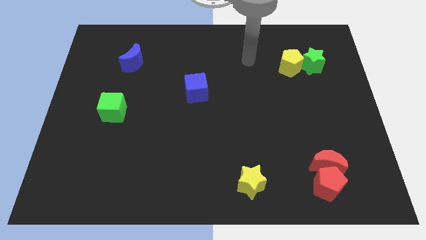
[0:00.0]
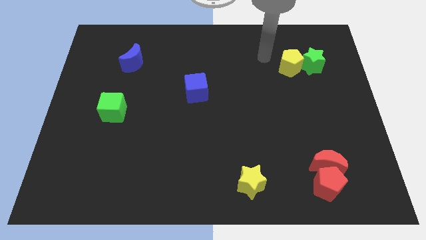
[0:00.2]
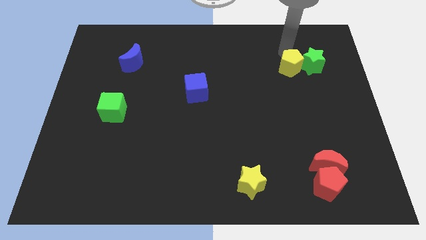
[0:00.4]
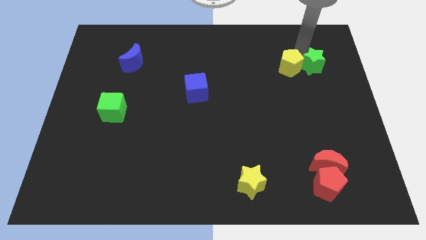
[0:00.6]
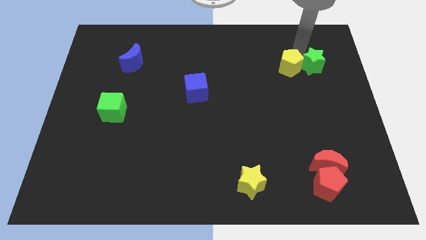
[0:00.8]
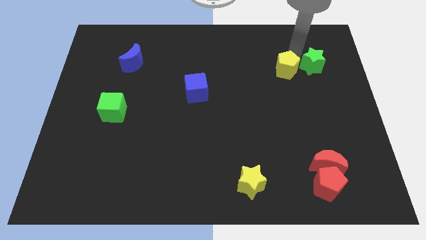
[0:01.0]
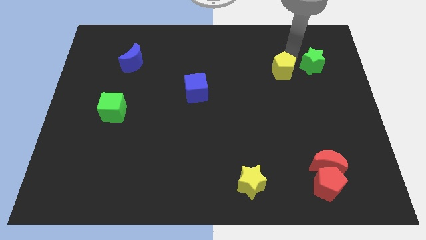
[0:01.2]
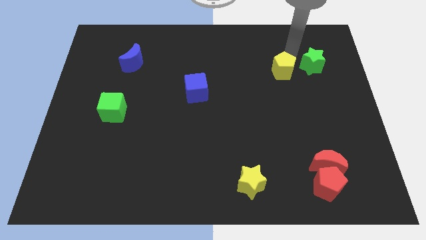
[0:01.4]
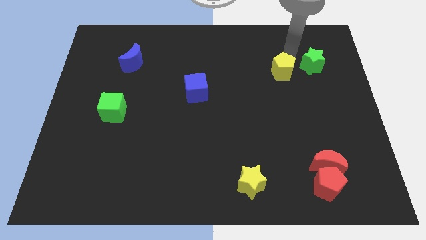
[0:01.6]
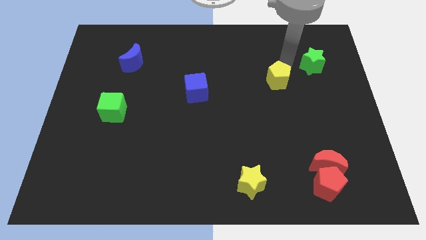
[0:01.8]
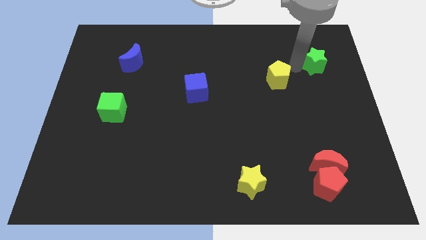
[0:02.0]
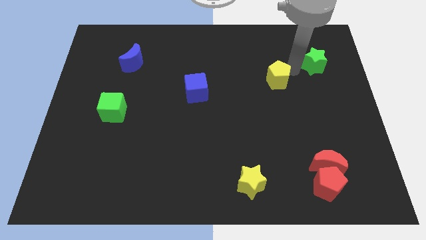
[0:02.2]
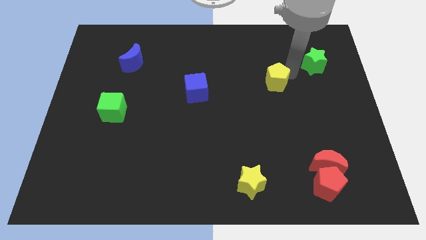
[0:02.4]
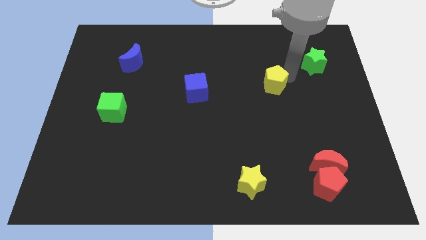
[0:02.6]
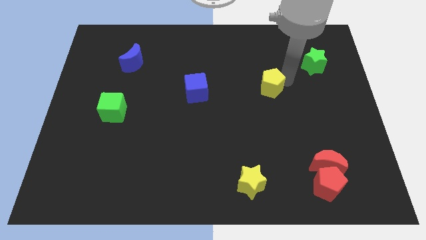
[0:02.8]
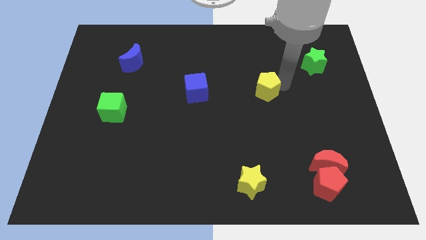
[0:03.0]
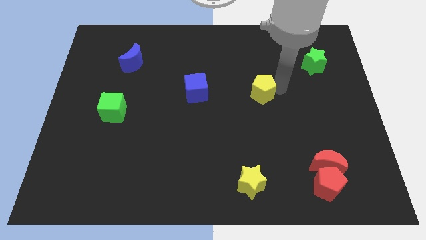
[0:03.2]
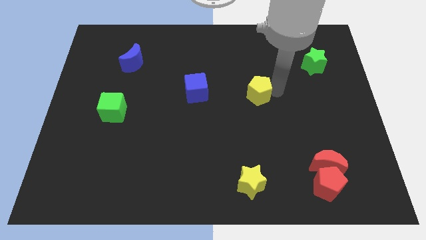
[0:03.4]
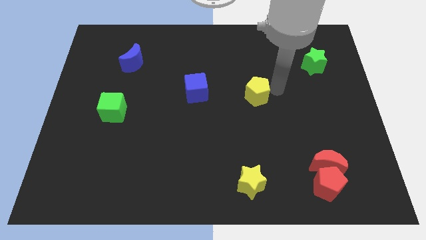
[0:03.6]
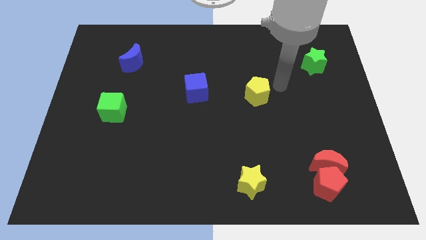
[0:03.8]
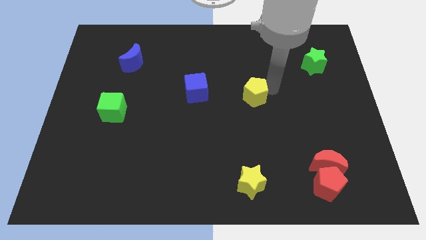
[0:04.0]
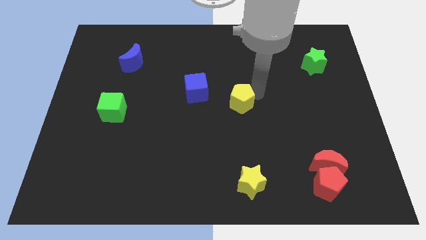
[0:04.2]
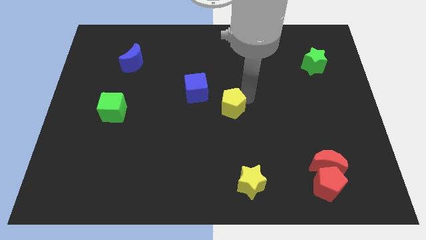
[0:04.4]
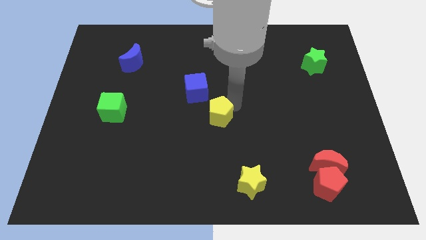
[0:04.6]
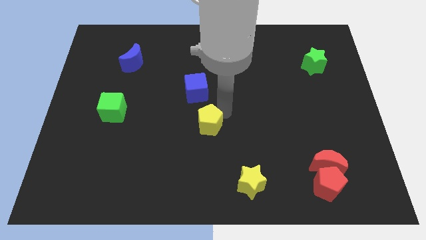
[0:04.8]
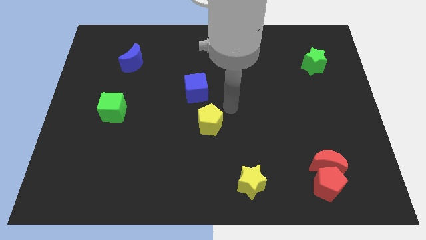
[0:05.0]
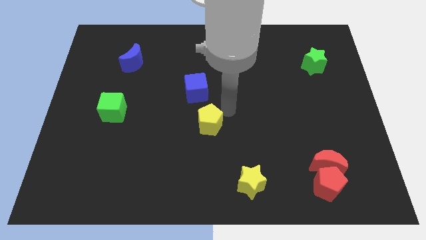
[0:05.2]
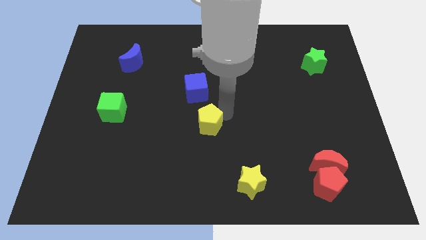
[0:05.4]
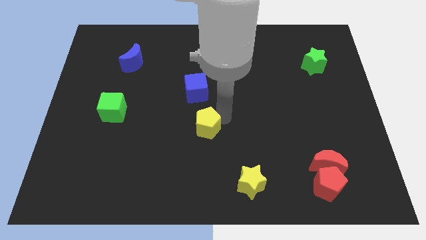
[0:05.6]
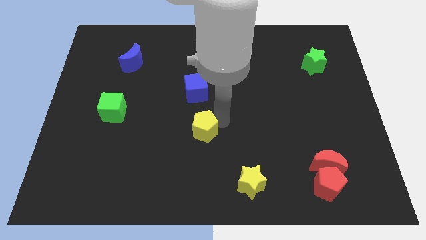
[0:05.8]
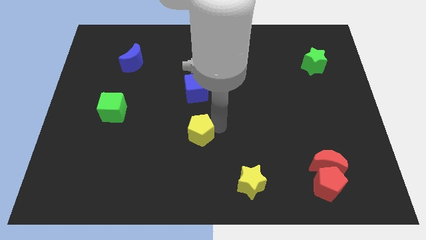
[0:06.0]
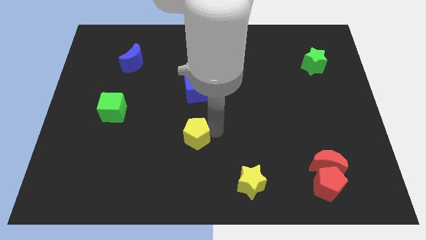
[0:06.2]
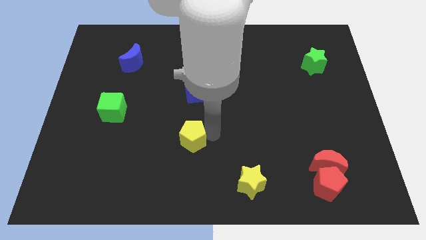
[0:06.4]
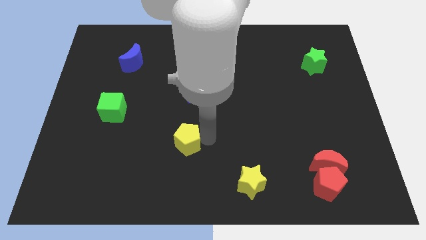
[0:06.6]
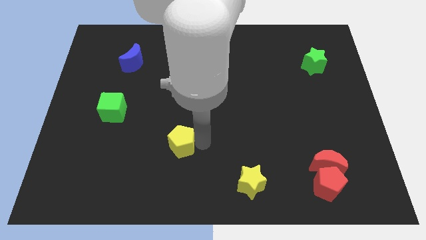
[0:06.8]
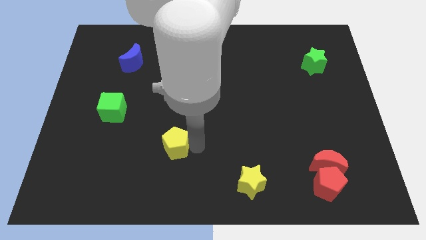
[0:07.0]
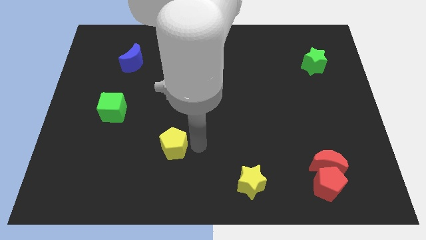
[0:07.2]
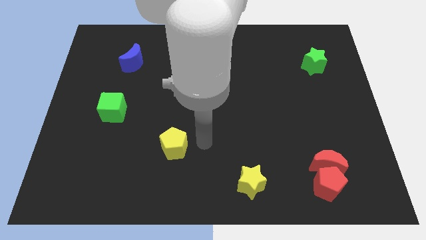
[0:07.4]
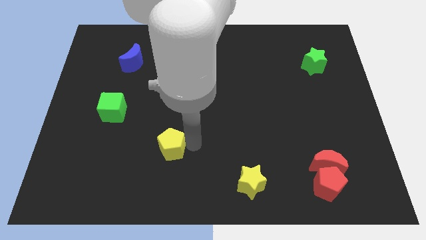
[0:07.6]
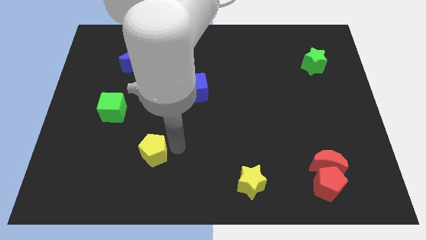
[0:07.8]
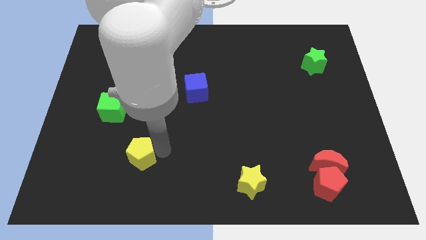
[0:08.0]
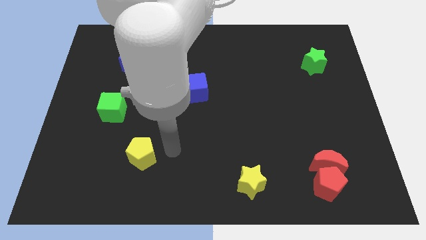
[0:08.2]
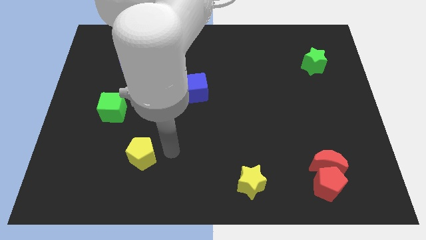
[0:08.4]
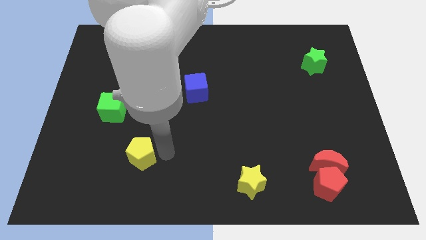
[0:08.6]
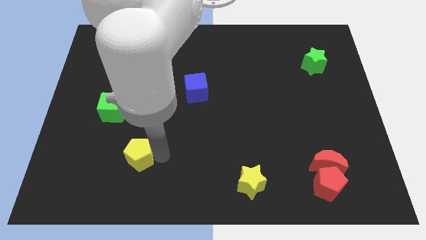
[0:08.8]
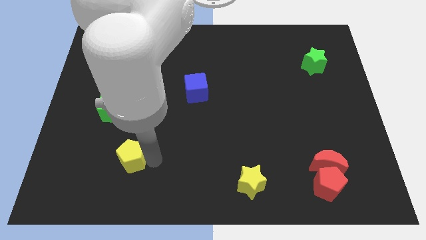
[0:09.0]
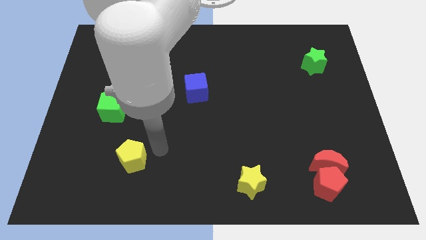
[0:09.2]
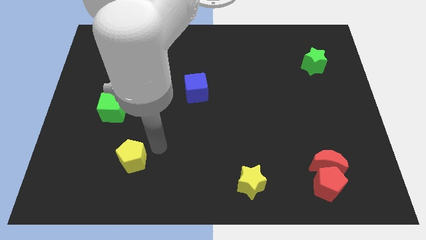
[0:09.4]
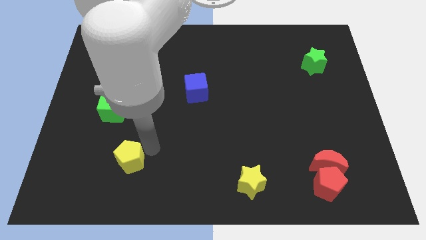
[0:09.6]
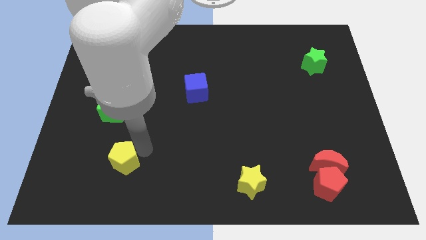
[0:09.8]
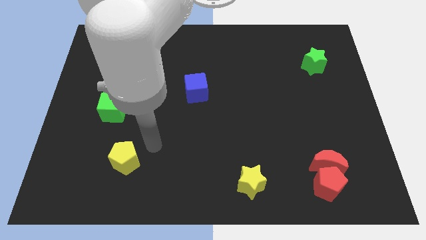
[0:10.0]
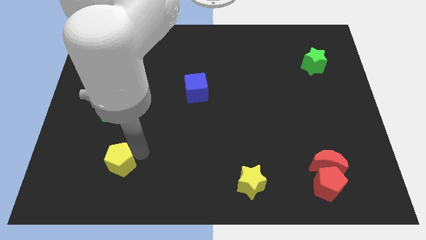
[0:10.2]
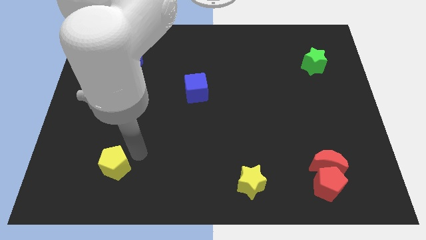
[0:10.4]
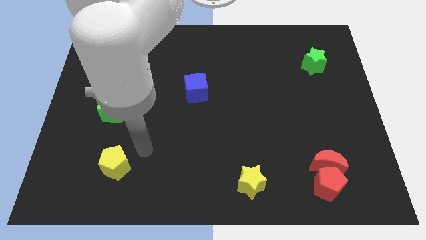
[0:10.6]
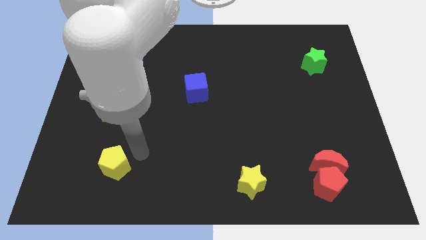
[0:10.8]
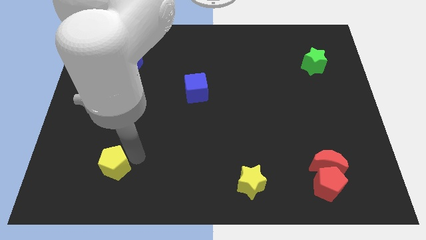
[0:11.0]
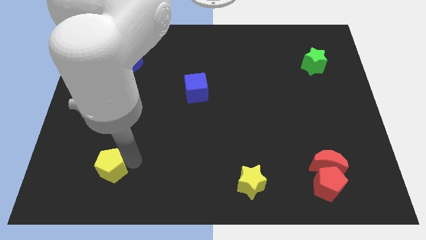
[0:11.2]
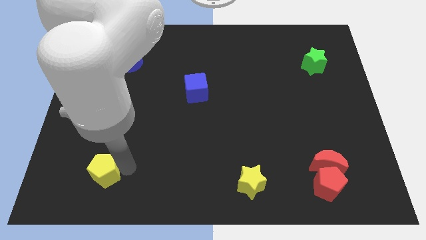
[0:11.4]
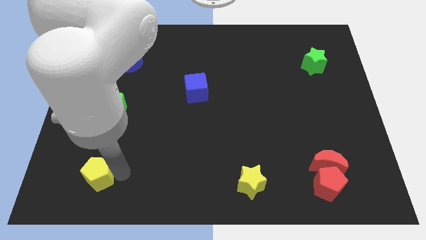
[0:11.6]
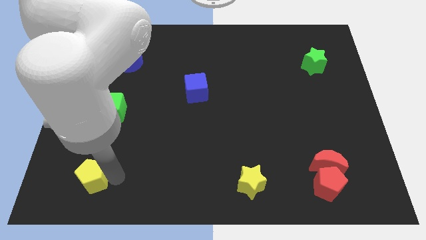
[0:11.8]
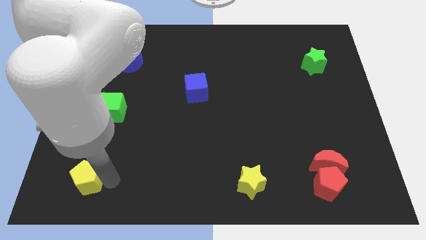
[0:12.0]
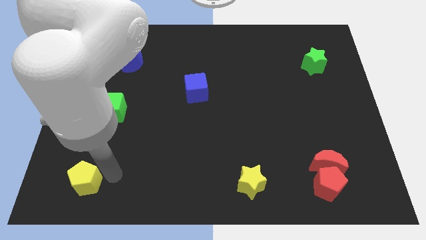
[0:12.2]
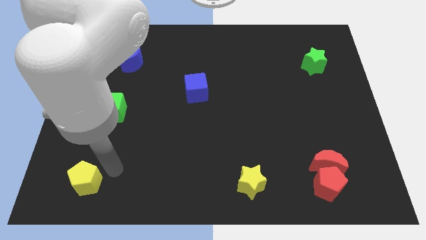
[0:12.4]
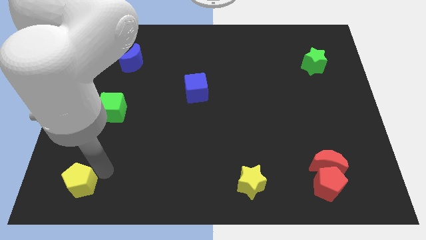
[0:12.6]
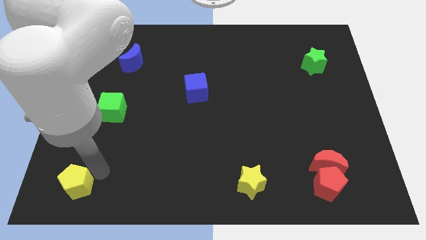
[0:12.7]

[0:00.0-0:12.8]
slide the yellow pentagon to the bottom left corner

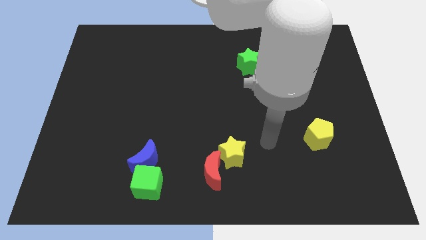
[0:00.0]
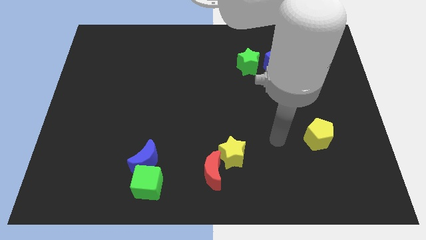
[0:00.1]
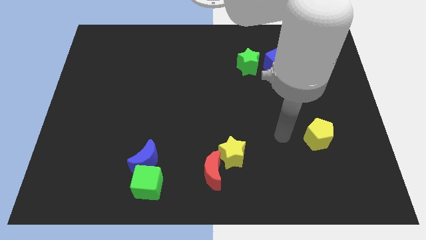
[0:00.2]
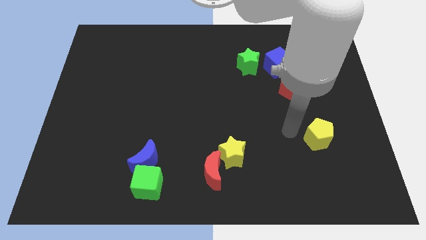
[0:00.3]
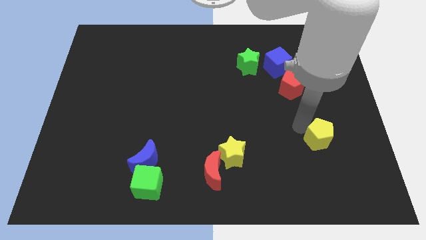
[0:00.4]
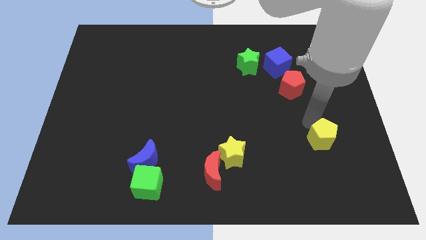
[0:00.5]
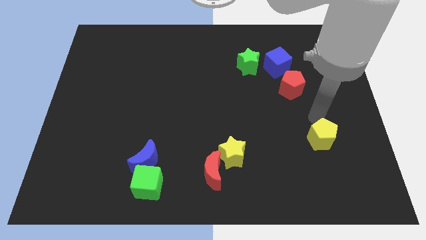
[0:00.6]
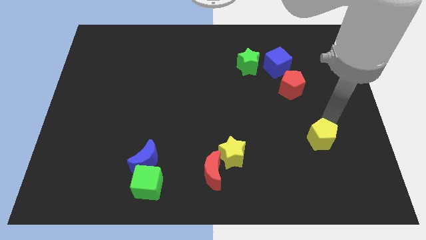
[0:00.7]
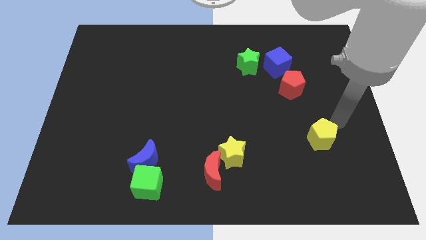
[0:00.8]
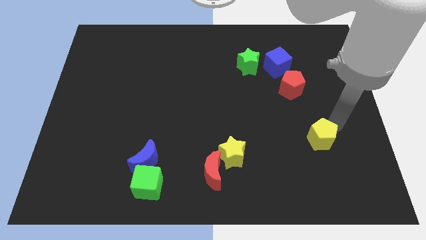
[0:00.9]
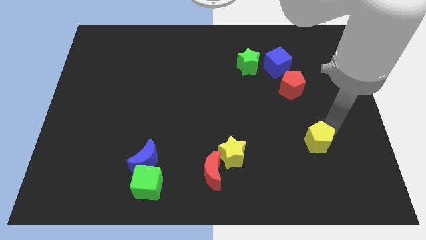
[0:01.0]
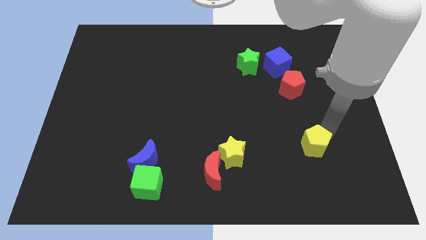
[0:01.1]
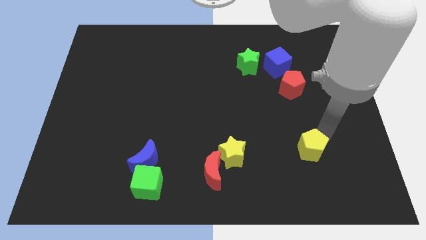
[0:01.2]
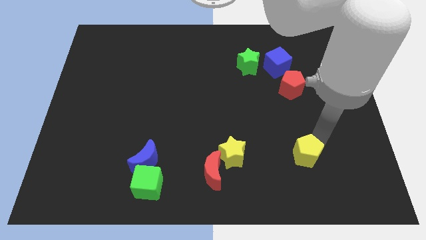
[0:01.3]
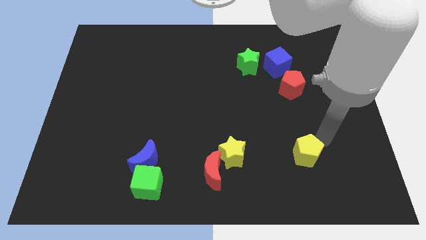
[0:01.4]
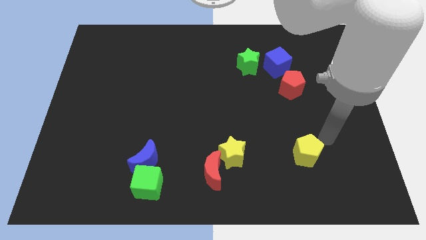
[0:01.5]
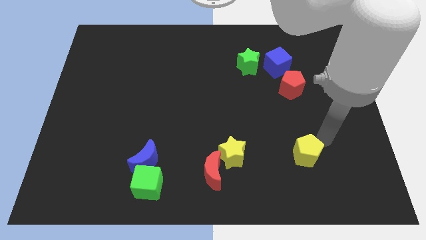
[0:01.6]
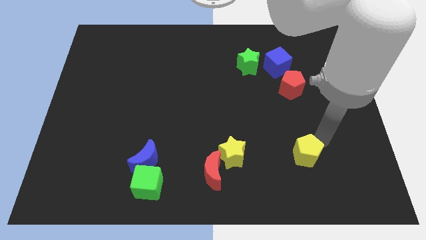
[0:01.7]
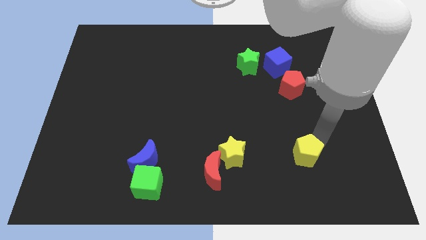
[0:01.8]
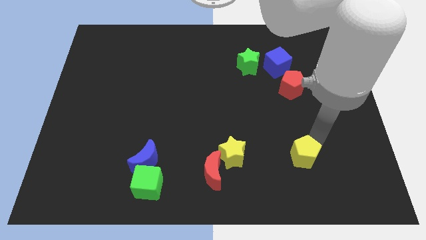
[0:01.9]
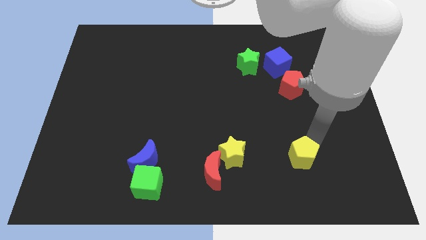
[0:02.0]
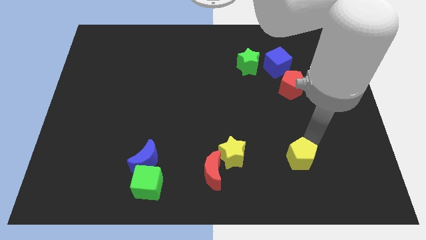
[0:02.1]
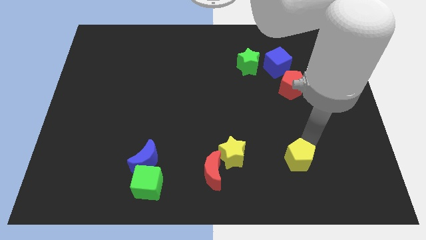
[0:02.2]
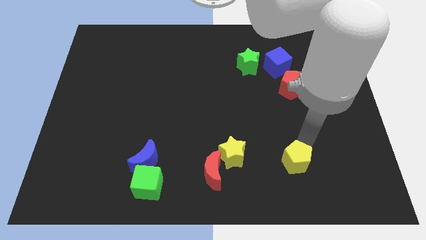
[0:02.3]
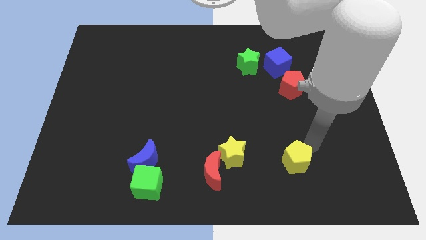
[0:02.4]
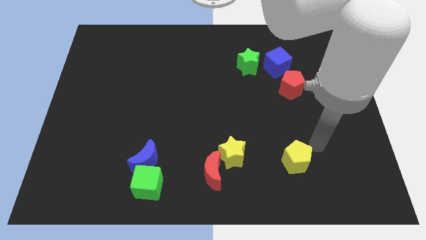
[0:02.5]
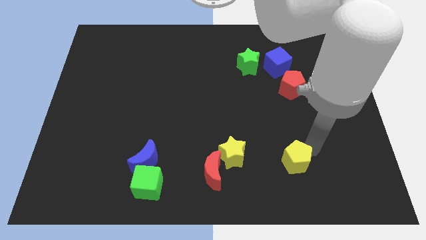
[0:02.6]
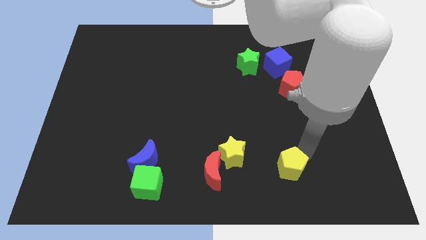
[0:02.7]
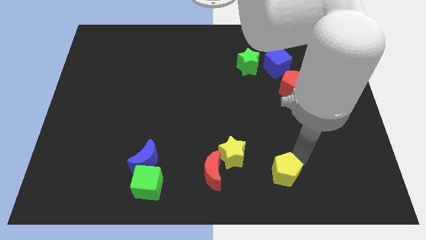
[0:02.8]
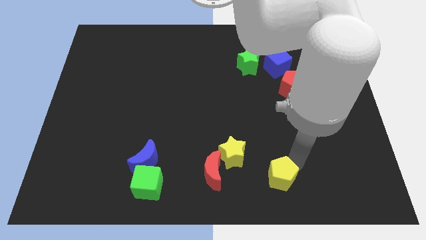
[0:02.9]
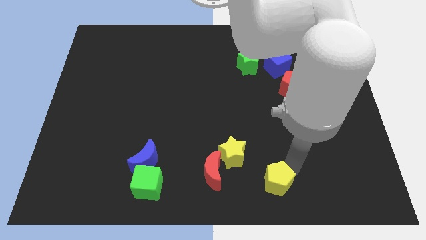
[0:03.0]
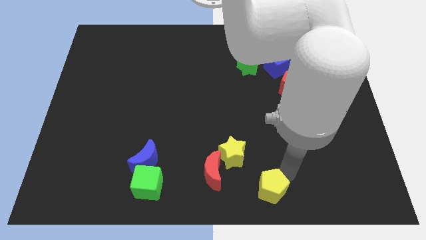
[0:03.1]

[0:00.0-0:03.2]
slide the yellow pentagon to the bottom
